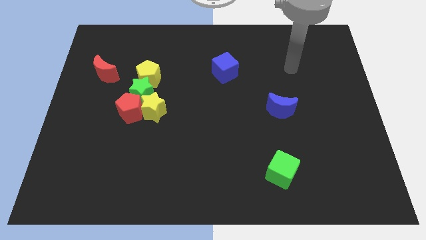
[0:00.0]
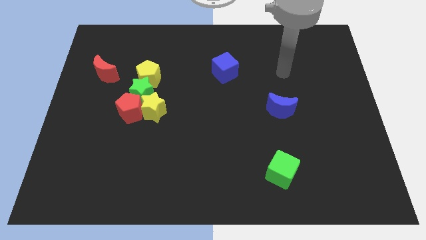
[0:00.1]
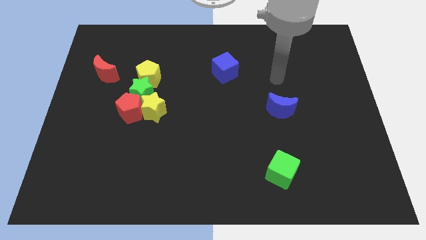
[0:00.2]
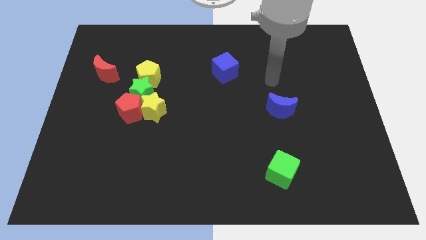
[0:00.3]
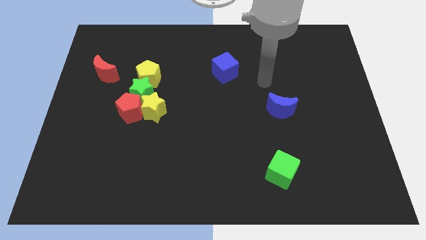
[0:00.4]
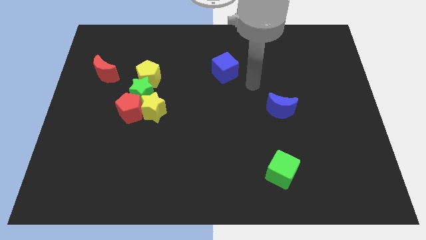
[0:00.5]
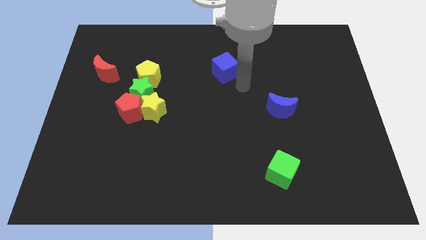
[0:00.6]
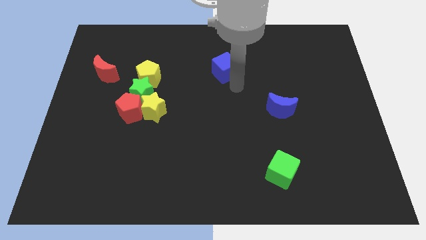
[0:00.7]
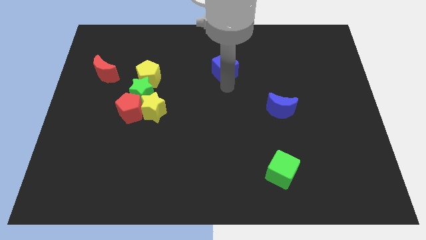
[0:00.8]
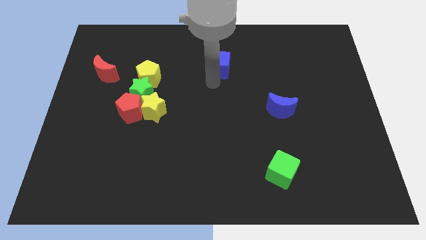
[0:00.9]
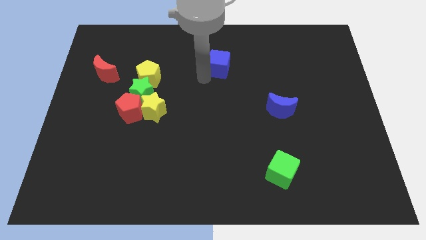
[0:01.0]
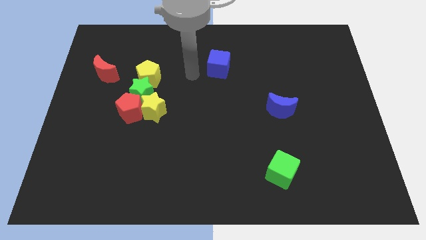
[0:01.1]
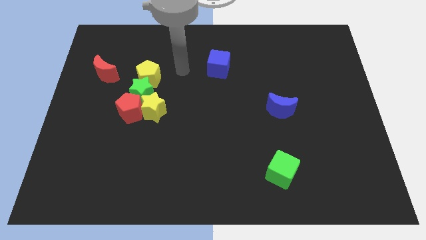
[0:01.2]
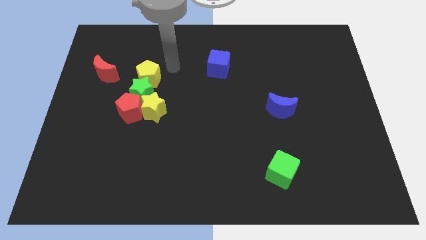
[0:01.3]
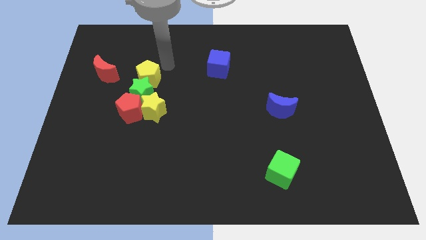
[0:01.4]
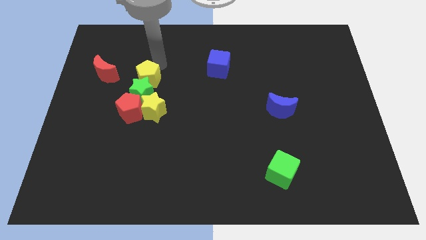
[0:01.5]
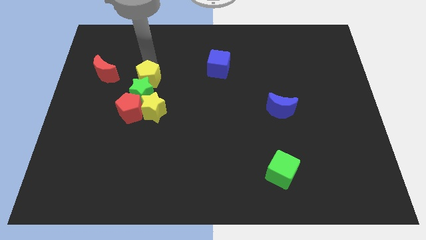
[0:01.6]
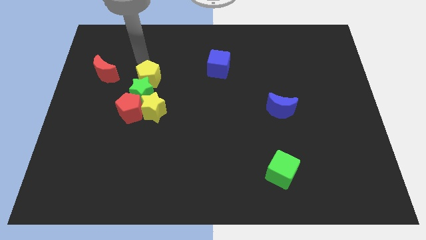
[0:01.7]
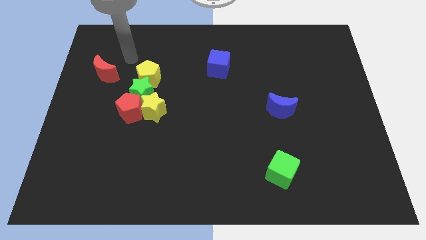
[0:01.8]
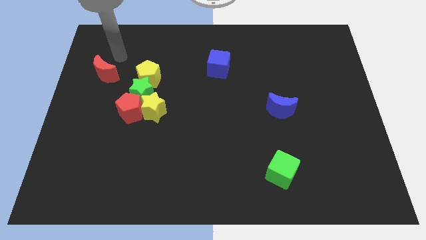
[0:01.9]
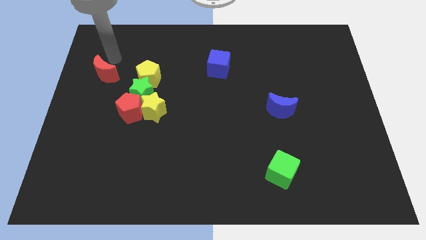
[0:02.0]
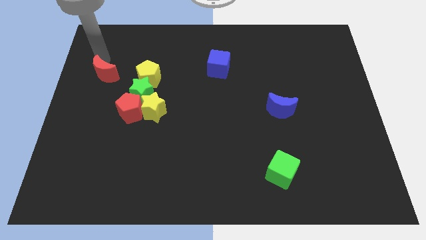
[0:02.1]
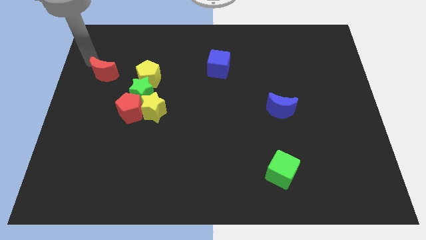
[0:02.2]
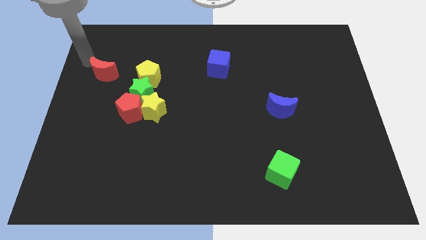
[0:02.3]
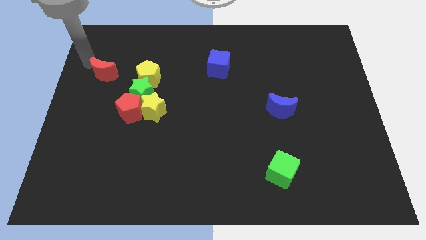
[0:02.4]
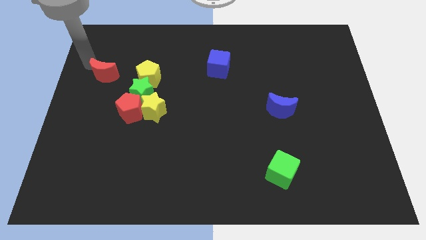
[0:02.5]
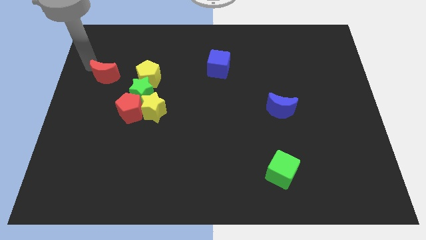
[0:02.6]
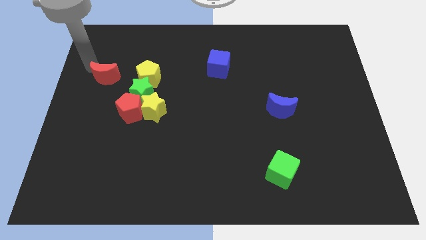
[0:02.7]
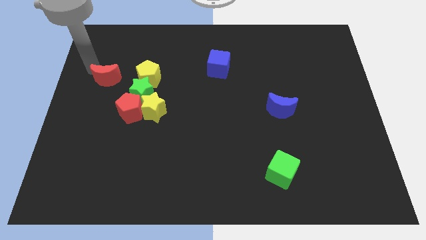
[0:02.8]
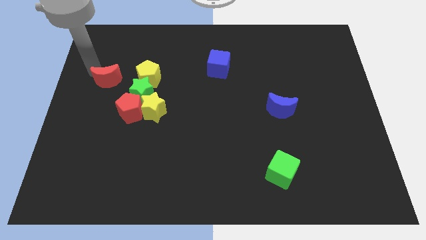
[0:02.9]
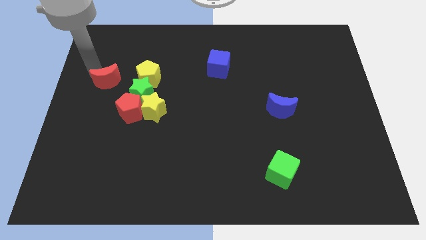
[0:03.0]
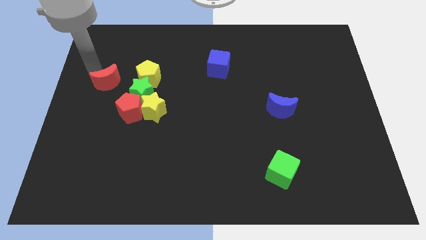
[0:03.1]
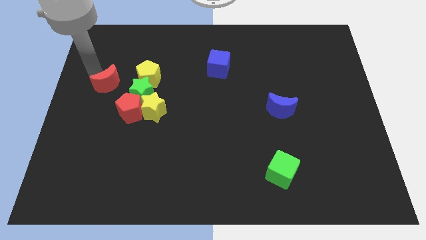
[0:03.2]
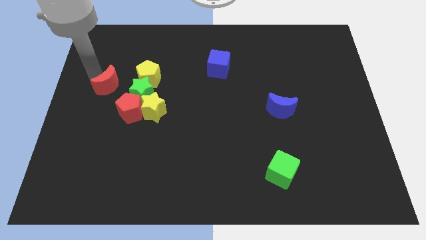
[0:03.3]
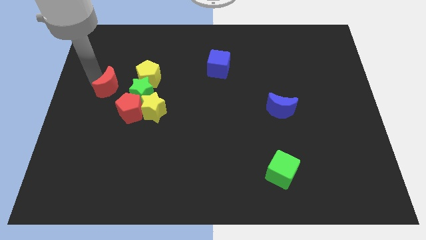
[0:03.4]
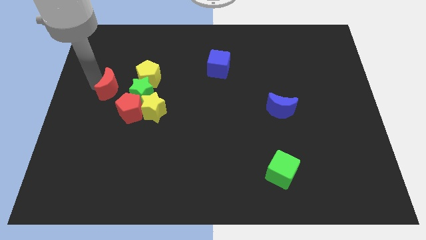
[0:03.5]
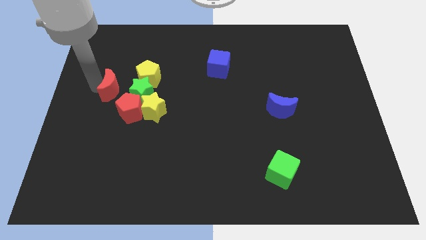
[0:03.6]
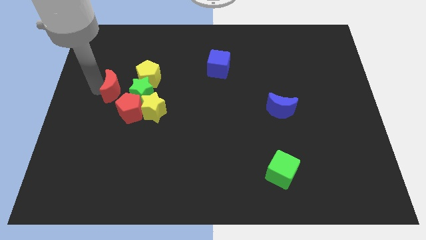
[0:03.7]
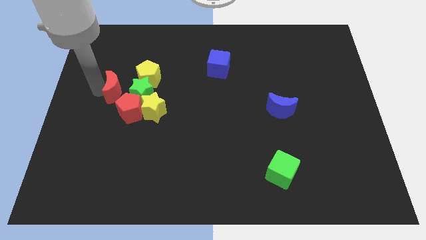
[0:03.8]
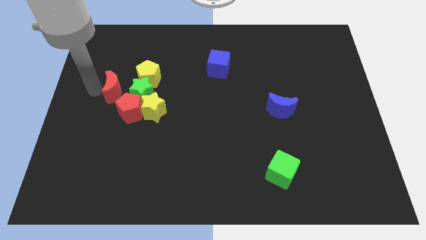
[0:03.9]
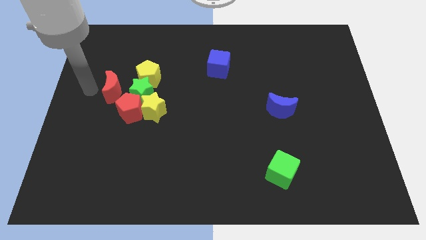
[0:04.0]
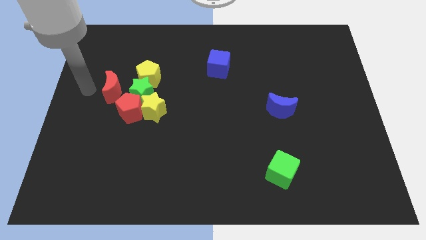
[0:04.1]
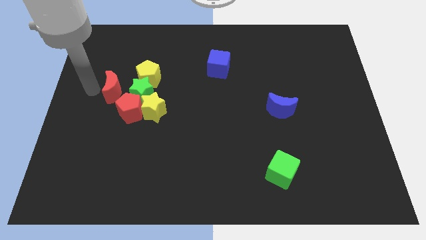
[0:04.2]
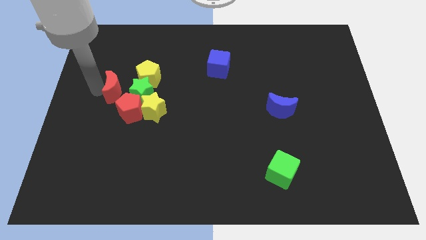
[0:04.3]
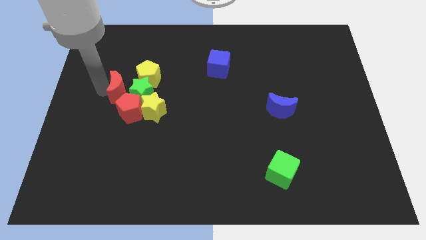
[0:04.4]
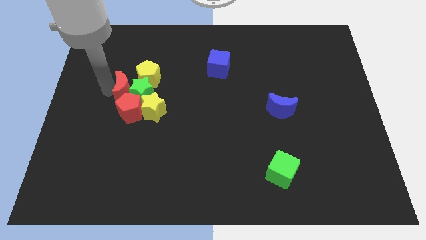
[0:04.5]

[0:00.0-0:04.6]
put the red moon towards the green star

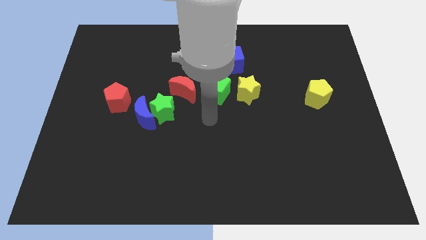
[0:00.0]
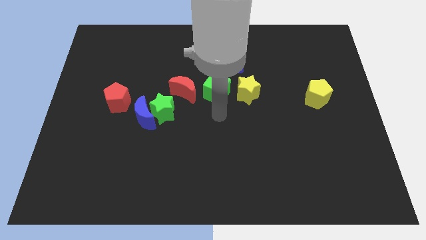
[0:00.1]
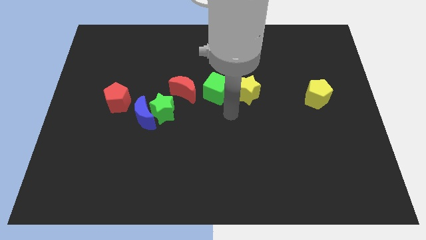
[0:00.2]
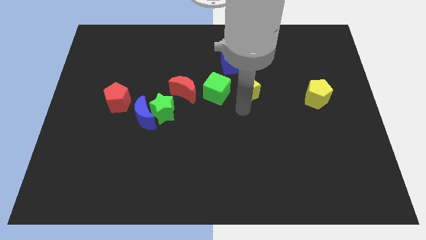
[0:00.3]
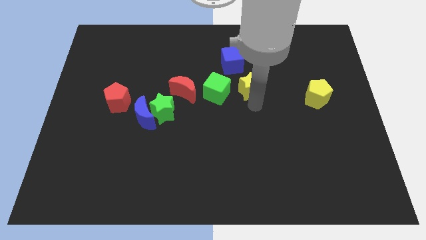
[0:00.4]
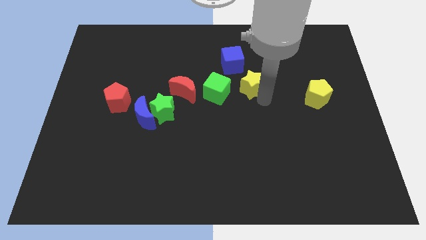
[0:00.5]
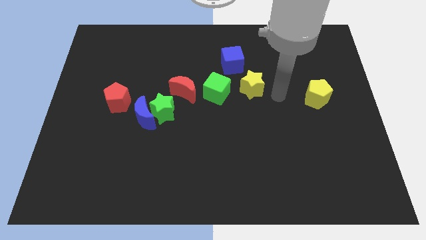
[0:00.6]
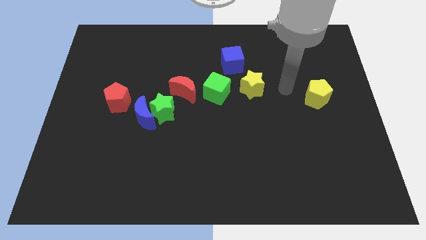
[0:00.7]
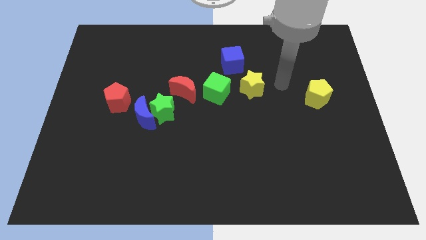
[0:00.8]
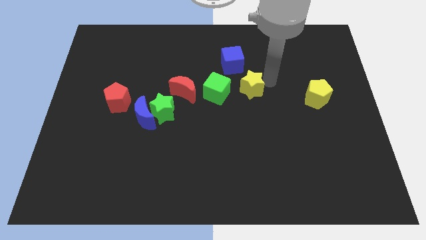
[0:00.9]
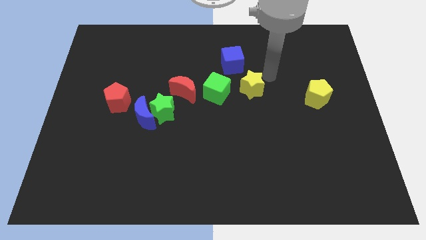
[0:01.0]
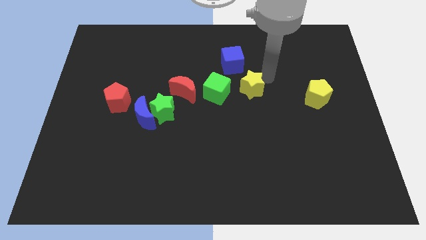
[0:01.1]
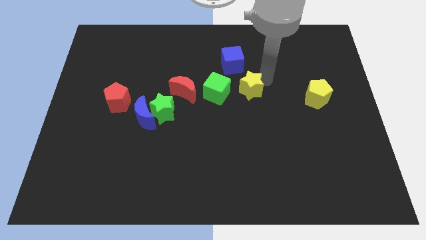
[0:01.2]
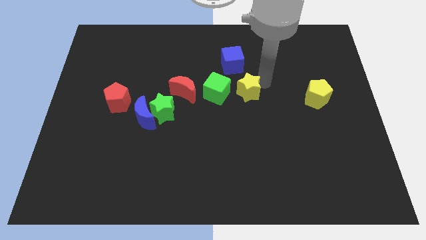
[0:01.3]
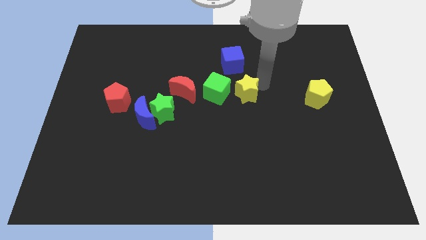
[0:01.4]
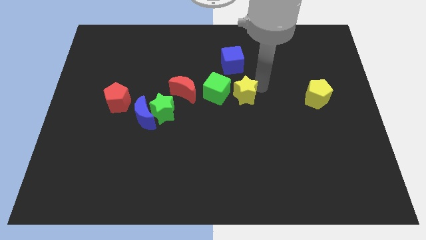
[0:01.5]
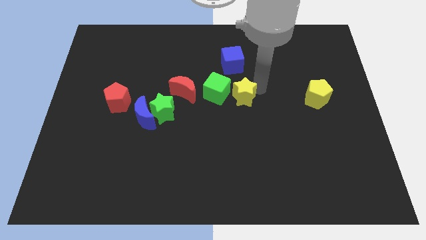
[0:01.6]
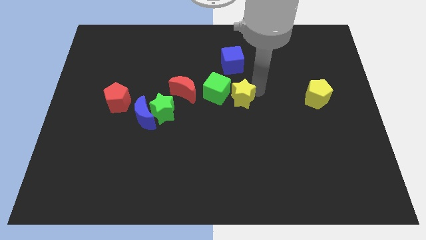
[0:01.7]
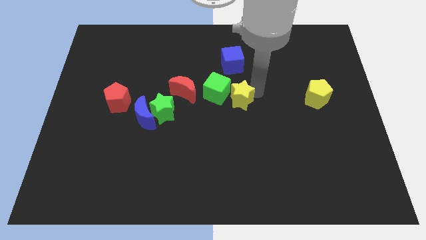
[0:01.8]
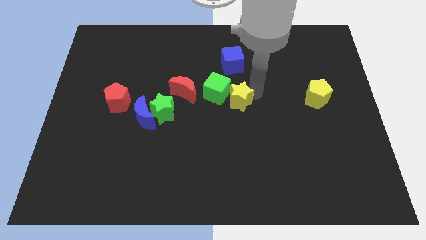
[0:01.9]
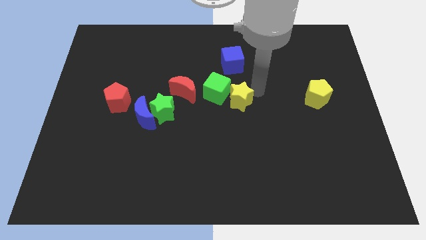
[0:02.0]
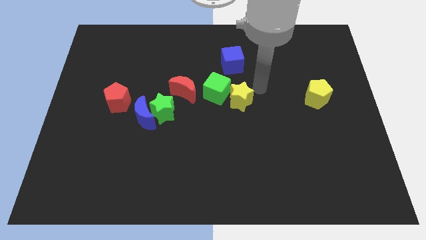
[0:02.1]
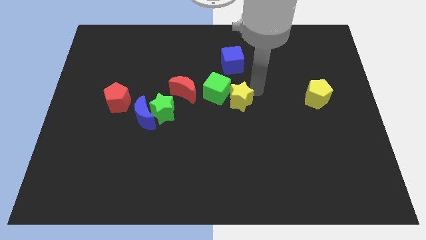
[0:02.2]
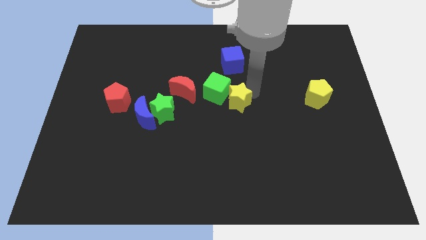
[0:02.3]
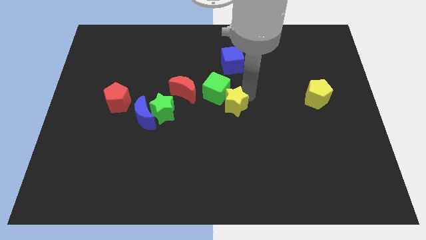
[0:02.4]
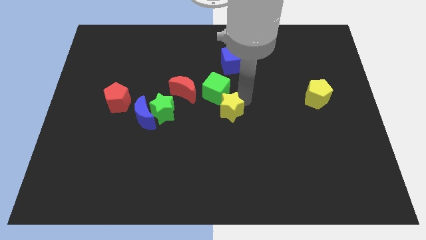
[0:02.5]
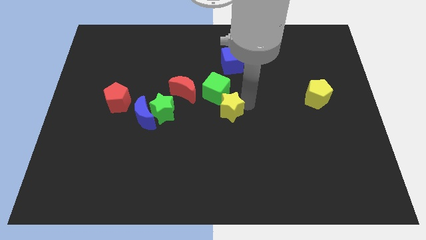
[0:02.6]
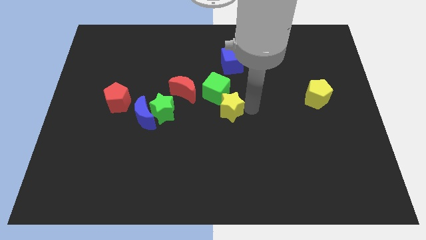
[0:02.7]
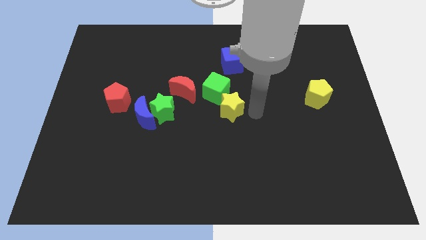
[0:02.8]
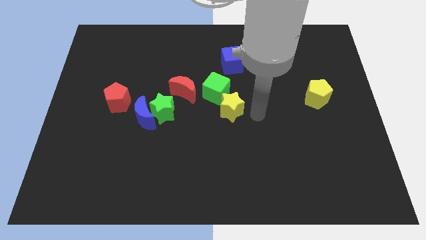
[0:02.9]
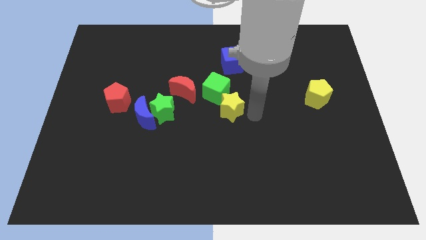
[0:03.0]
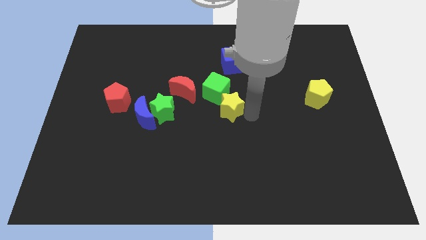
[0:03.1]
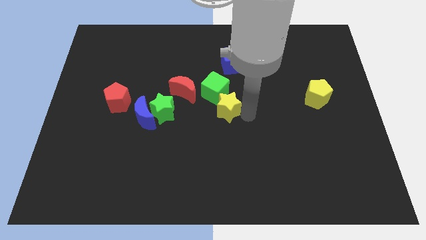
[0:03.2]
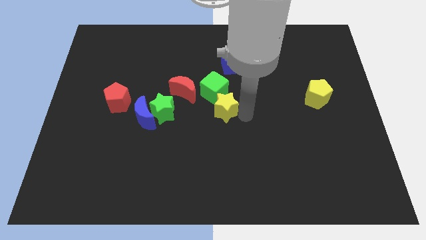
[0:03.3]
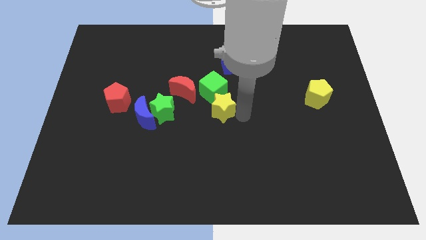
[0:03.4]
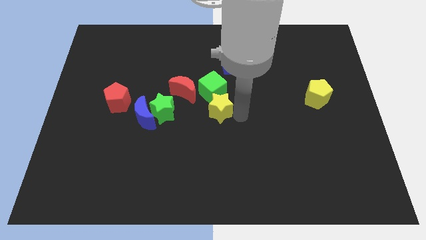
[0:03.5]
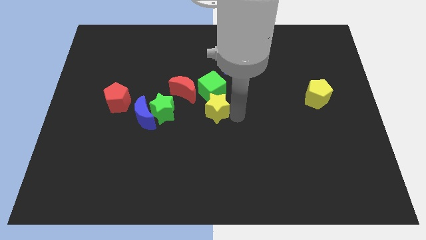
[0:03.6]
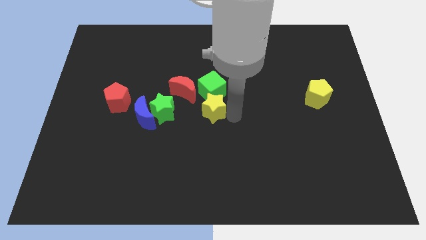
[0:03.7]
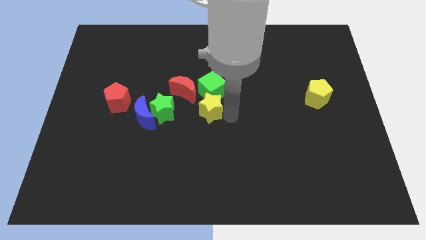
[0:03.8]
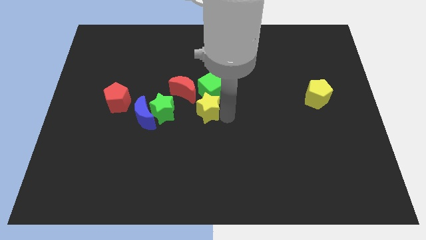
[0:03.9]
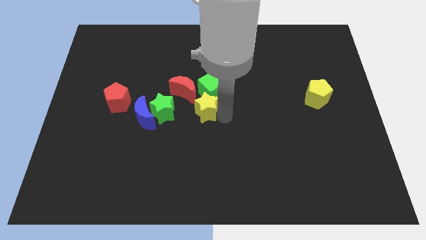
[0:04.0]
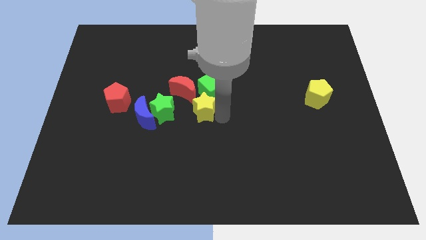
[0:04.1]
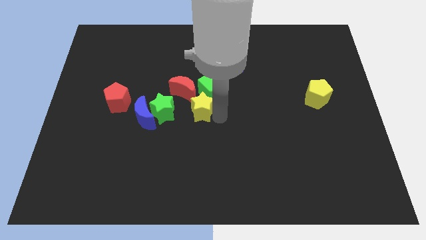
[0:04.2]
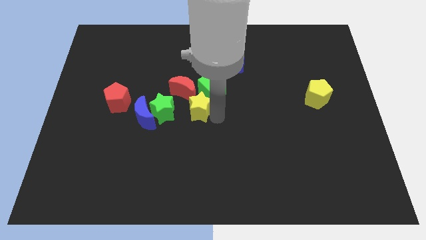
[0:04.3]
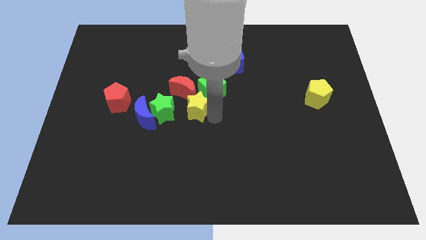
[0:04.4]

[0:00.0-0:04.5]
push the yellow star close to the red moon
